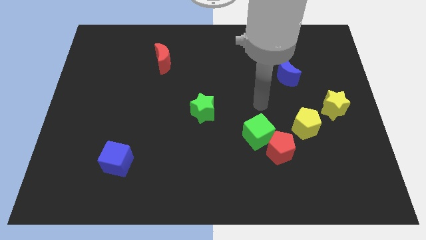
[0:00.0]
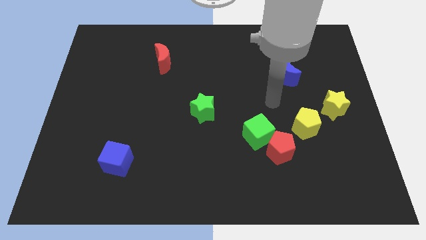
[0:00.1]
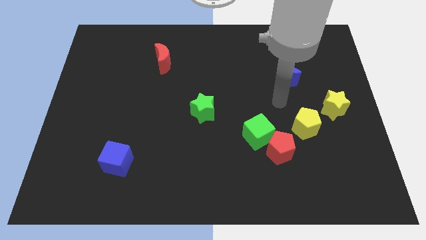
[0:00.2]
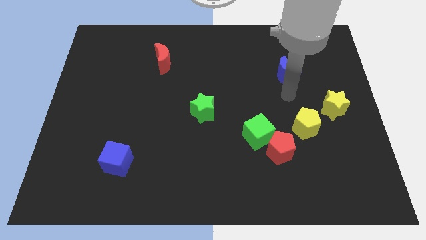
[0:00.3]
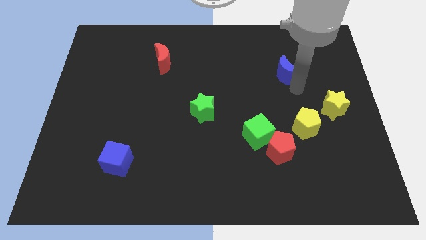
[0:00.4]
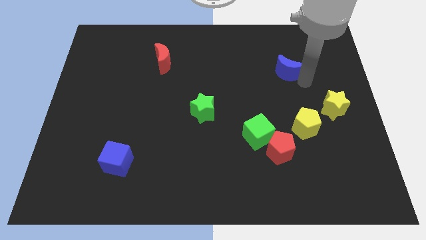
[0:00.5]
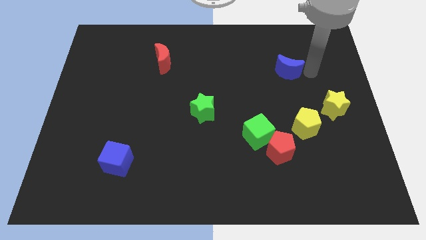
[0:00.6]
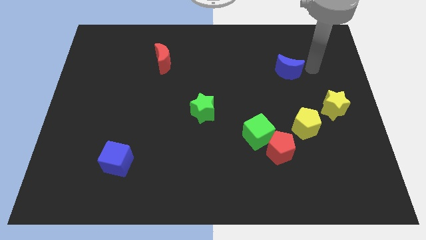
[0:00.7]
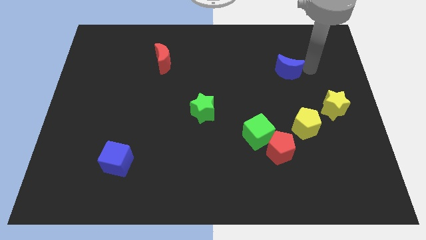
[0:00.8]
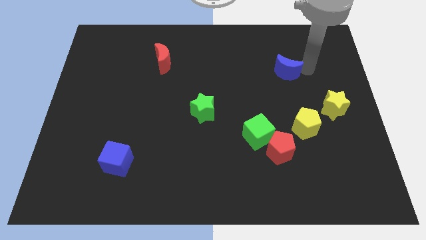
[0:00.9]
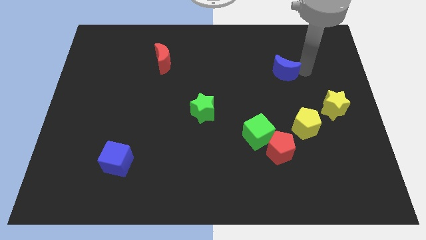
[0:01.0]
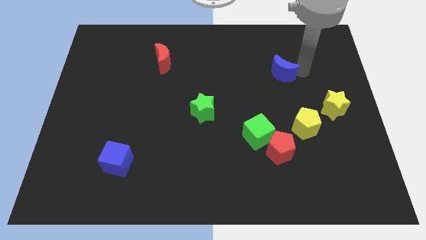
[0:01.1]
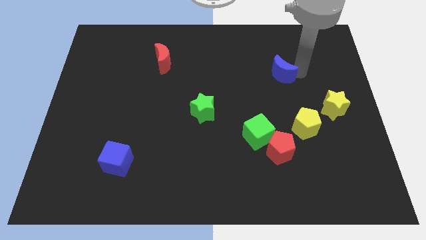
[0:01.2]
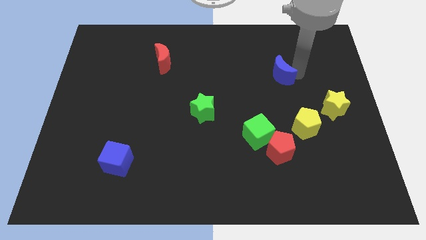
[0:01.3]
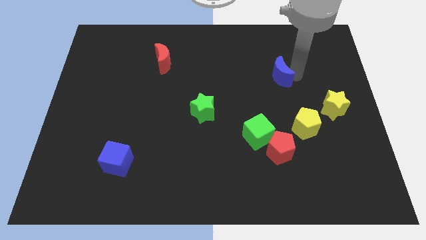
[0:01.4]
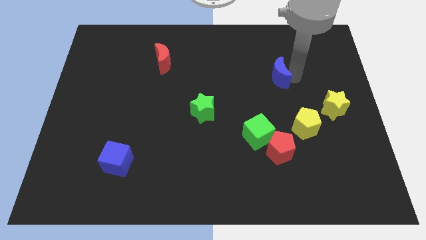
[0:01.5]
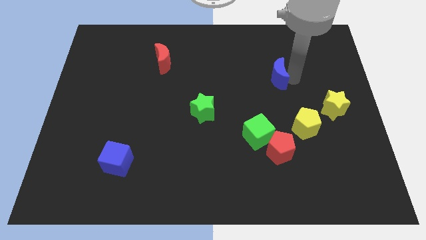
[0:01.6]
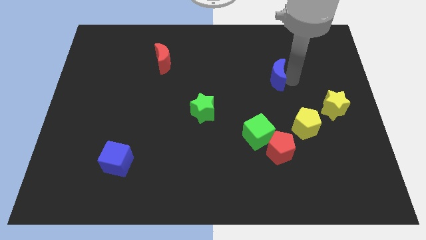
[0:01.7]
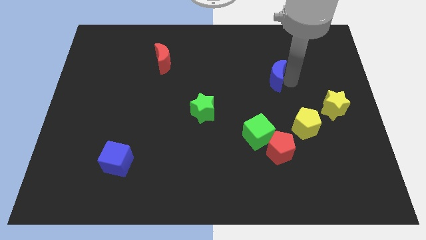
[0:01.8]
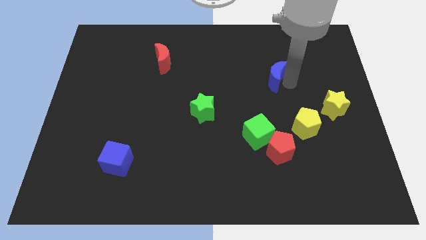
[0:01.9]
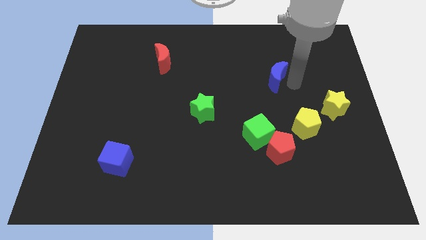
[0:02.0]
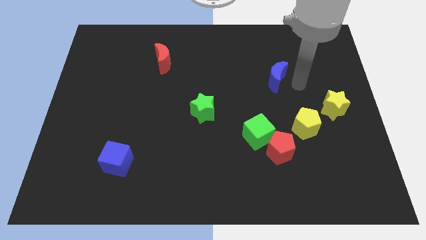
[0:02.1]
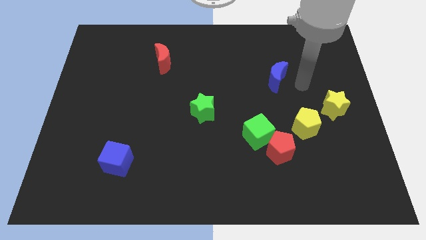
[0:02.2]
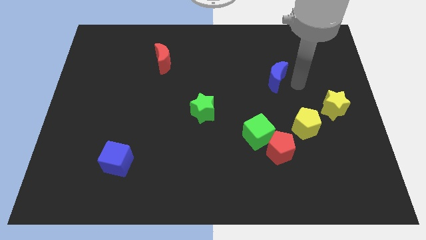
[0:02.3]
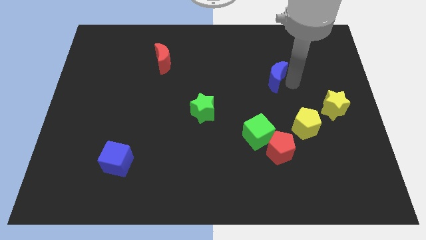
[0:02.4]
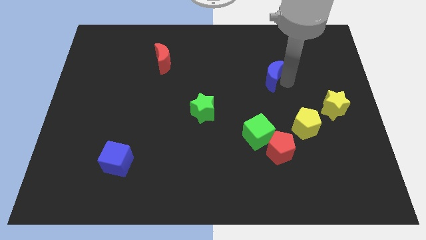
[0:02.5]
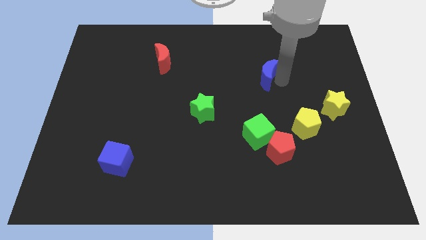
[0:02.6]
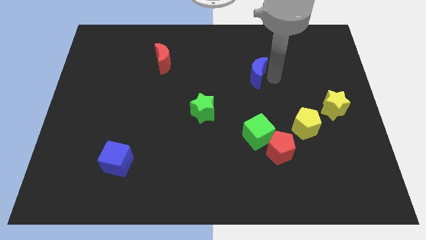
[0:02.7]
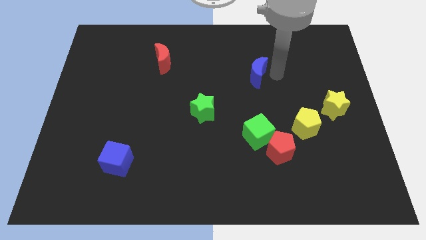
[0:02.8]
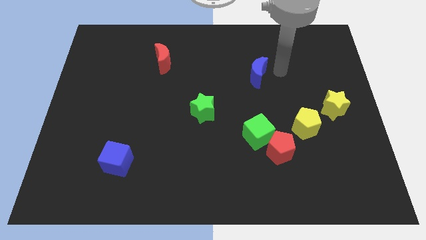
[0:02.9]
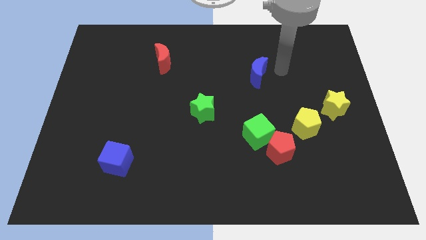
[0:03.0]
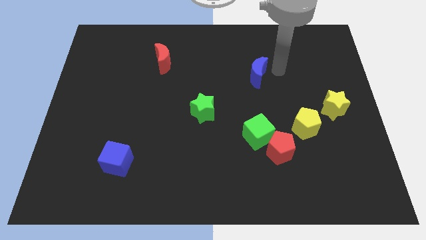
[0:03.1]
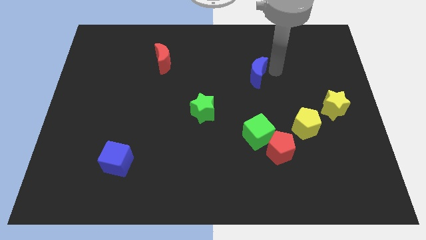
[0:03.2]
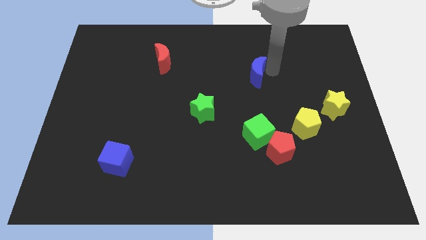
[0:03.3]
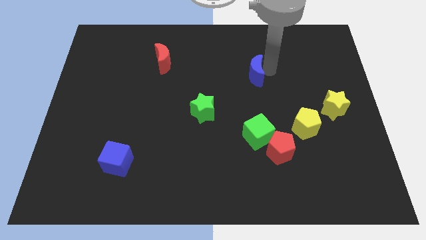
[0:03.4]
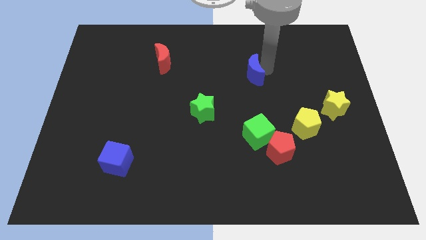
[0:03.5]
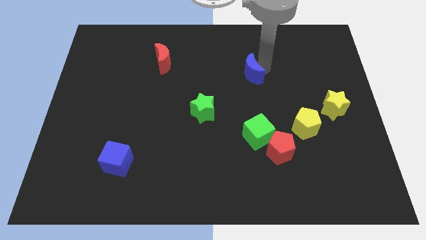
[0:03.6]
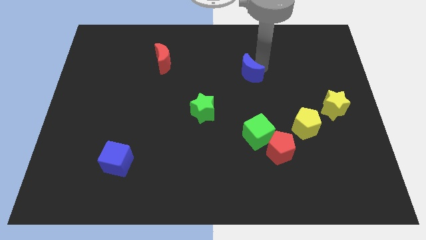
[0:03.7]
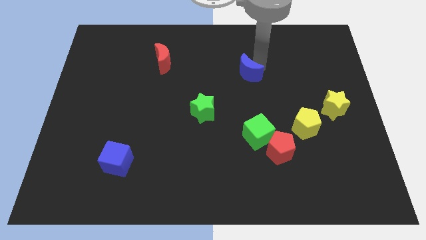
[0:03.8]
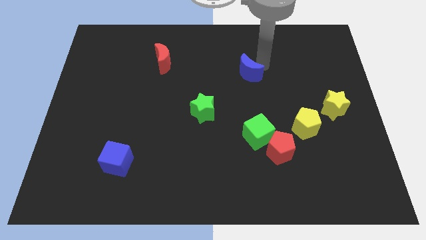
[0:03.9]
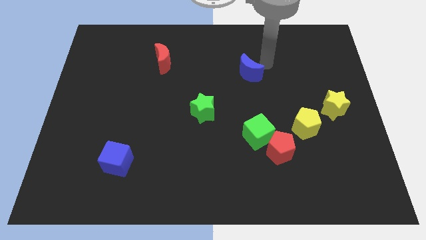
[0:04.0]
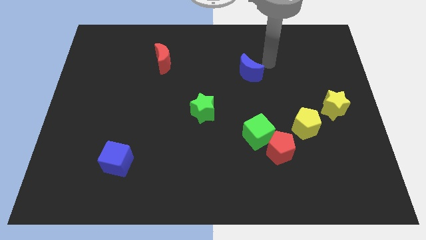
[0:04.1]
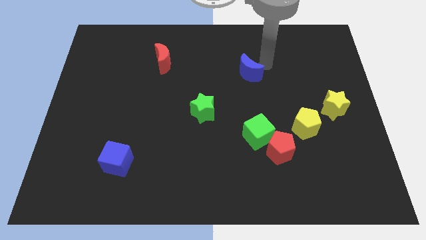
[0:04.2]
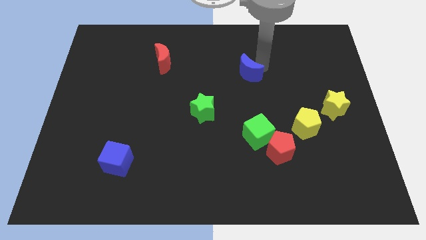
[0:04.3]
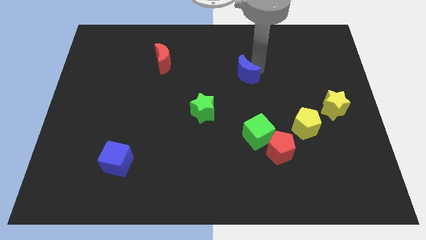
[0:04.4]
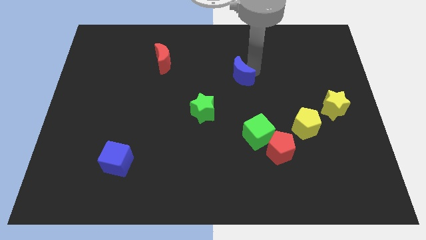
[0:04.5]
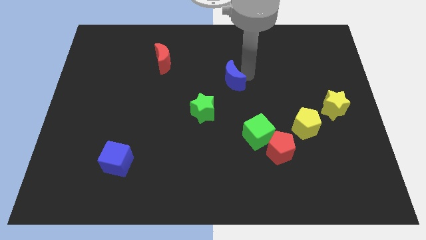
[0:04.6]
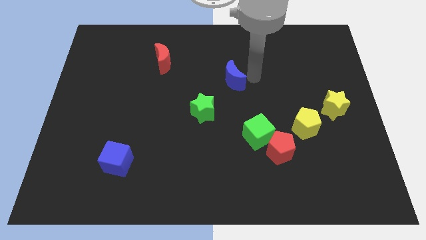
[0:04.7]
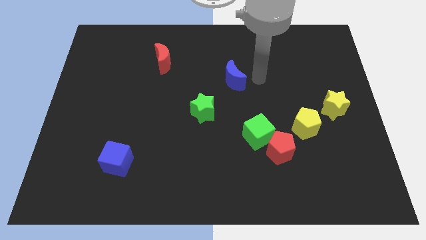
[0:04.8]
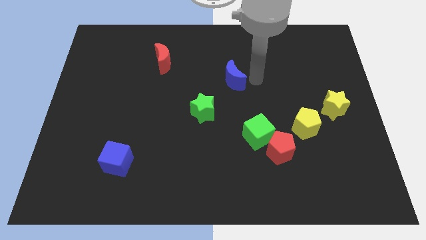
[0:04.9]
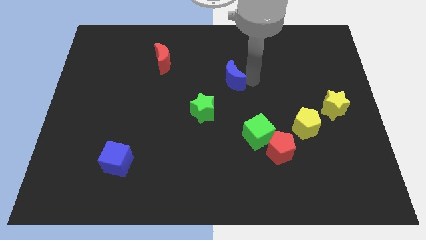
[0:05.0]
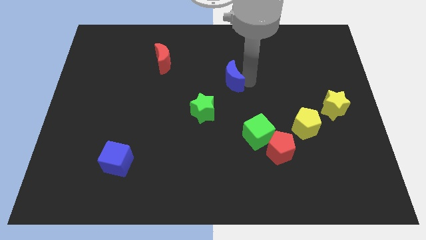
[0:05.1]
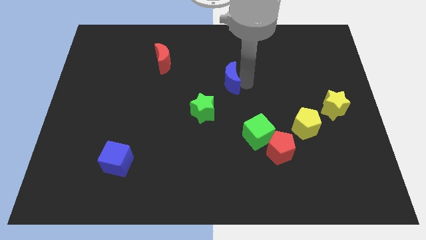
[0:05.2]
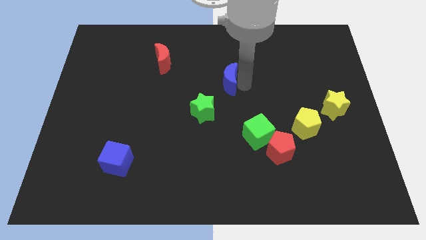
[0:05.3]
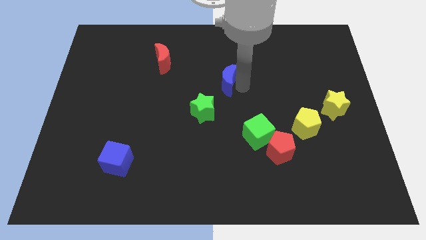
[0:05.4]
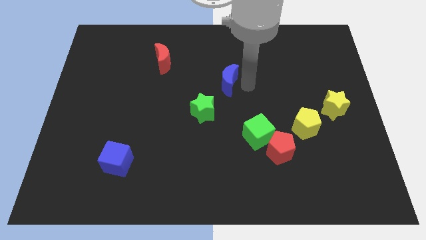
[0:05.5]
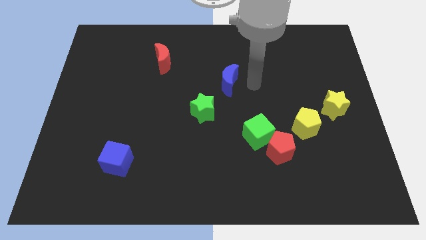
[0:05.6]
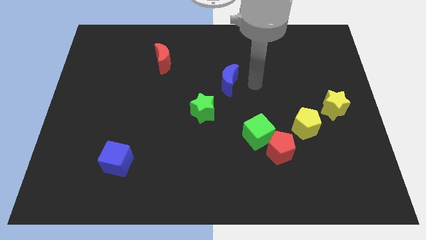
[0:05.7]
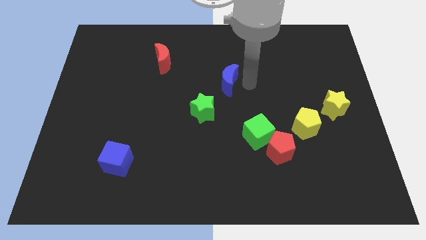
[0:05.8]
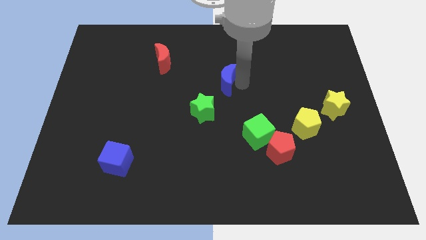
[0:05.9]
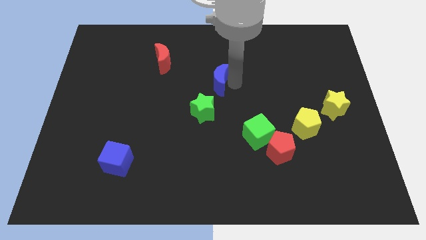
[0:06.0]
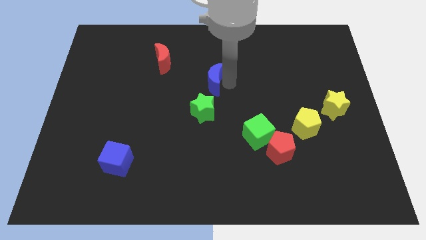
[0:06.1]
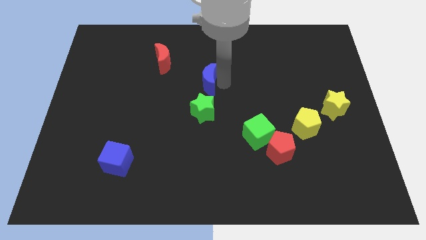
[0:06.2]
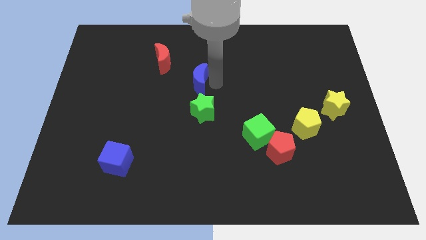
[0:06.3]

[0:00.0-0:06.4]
move the blue moon left

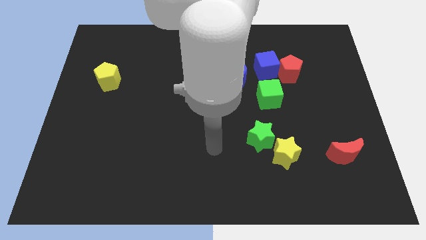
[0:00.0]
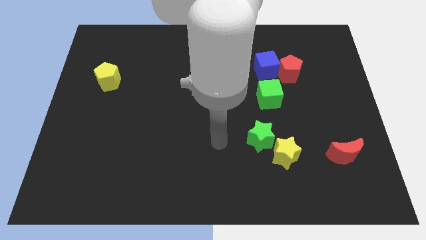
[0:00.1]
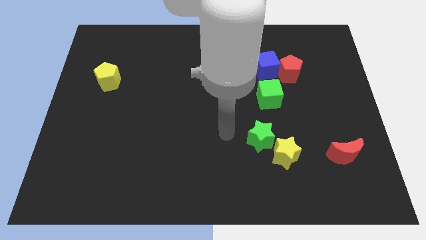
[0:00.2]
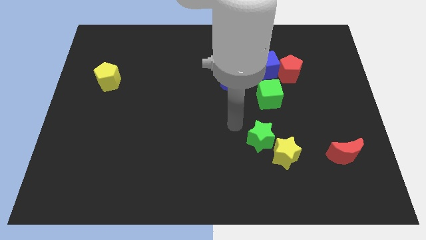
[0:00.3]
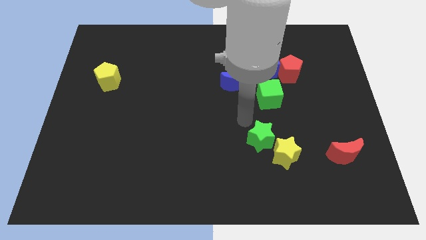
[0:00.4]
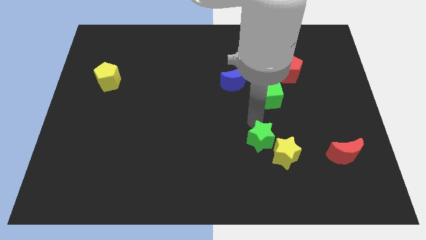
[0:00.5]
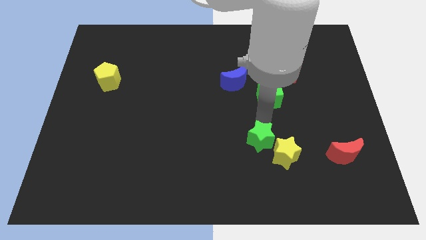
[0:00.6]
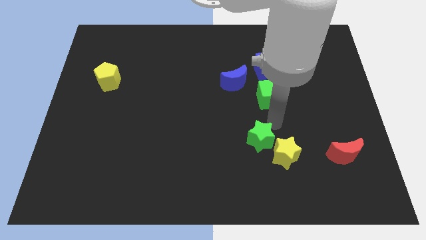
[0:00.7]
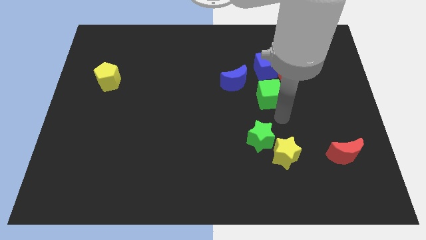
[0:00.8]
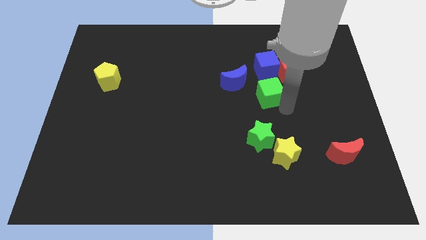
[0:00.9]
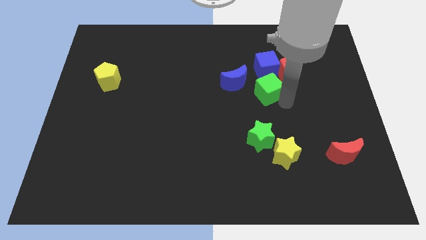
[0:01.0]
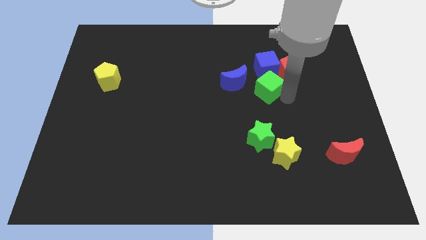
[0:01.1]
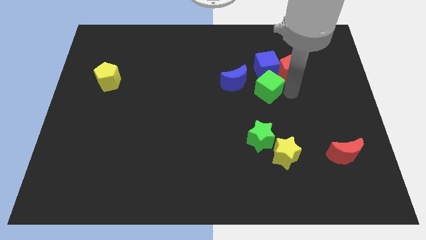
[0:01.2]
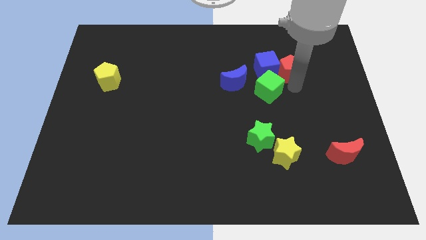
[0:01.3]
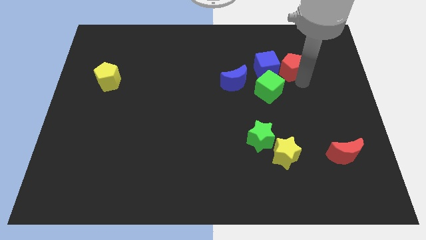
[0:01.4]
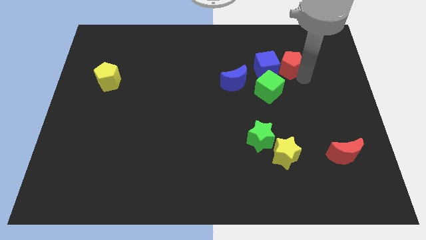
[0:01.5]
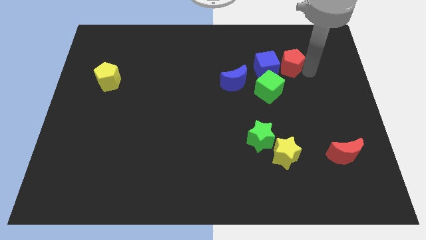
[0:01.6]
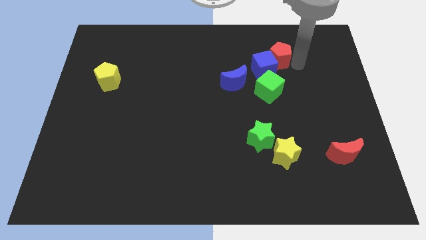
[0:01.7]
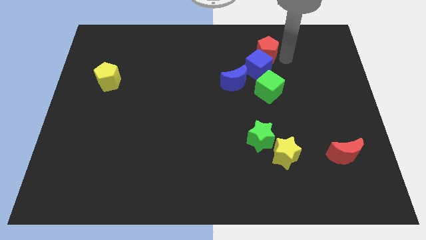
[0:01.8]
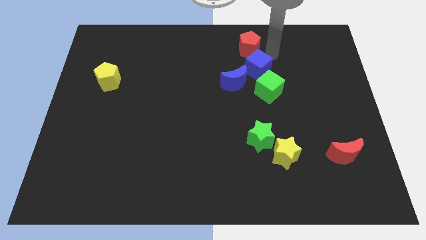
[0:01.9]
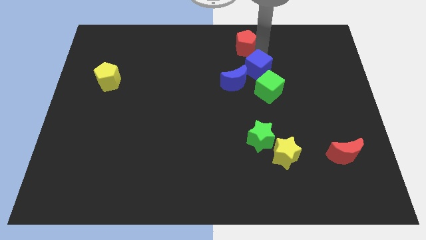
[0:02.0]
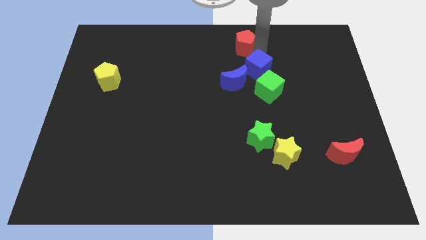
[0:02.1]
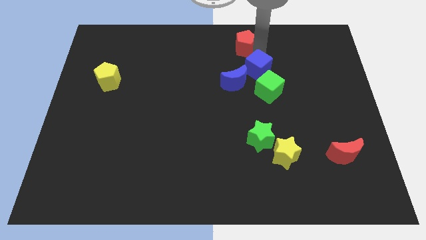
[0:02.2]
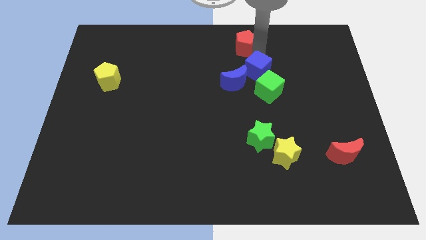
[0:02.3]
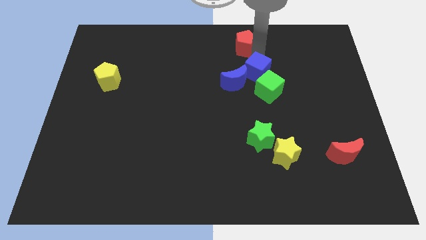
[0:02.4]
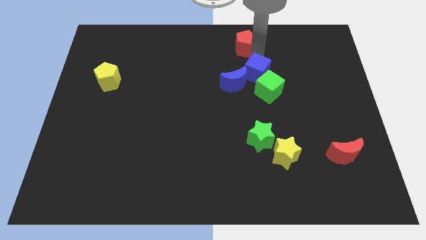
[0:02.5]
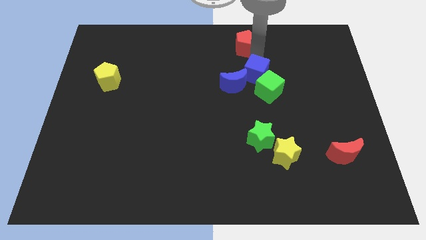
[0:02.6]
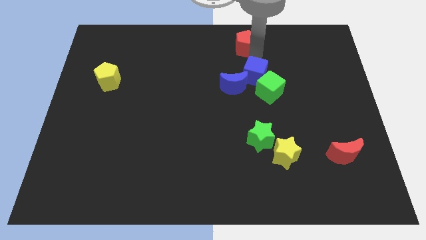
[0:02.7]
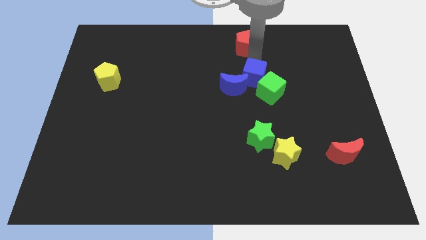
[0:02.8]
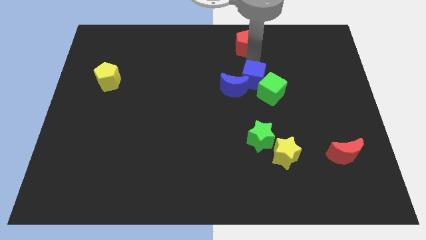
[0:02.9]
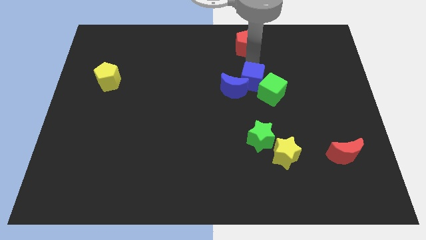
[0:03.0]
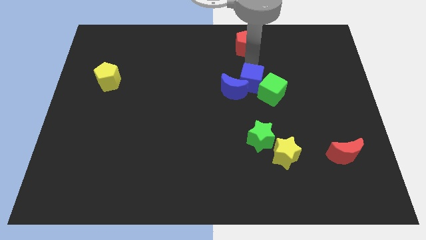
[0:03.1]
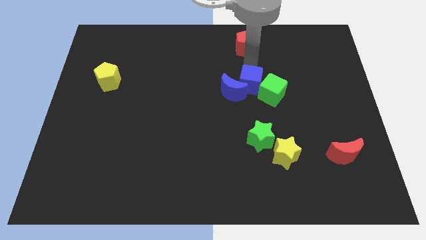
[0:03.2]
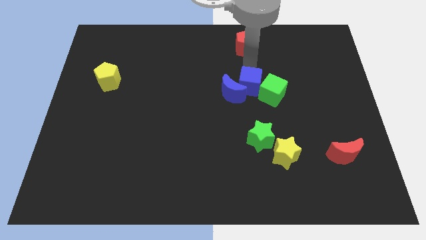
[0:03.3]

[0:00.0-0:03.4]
slide the blue cube a little bit downwards and left
